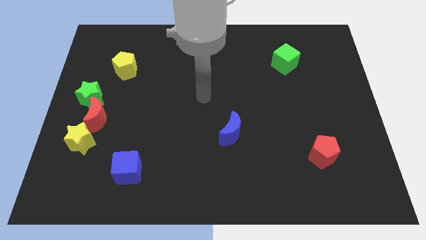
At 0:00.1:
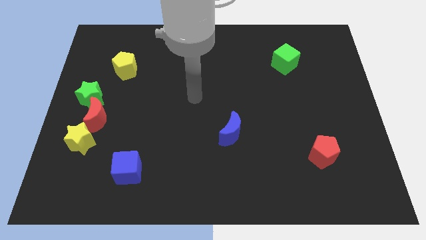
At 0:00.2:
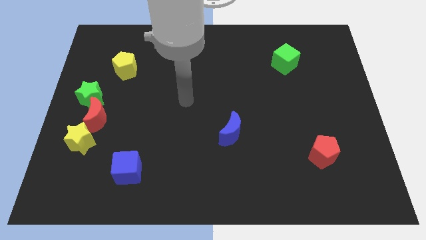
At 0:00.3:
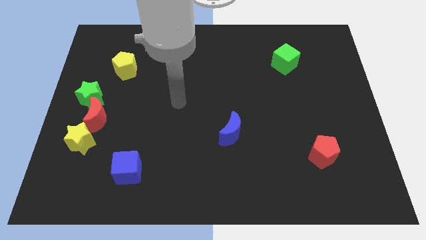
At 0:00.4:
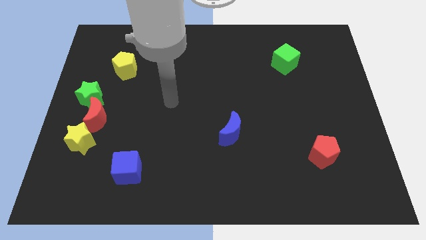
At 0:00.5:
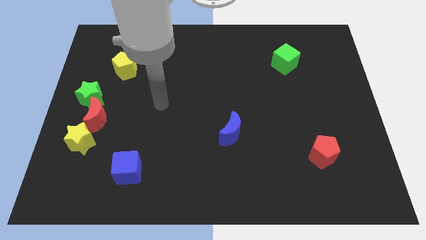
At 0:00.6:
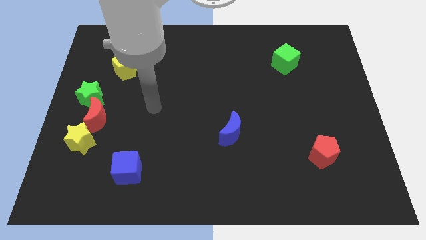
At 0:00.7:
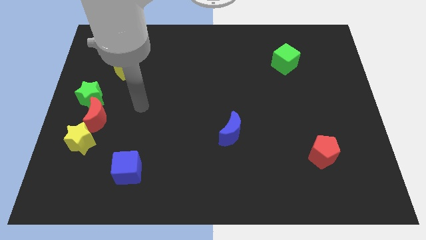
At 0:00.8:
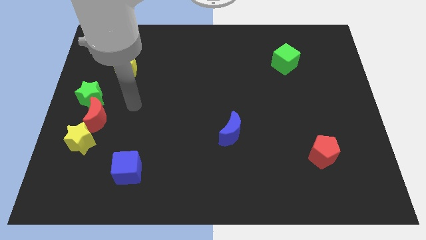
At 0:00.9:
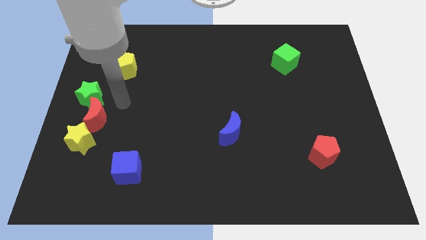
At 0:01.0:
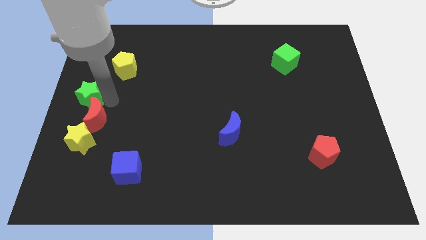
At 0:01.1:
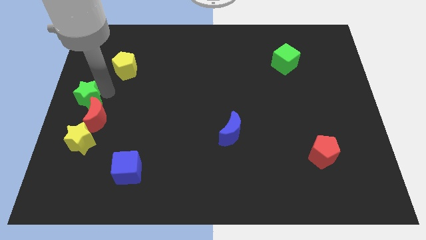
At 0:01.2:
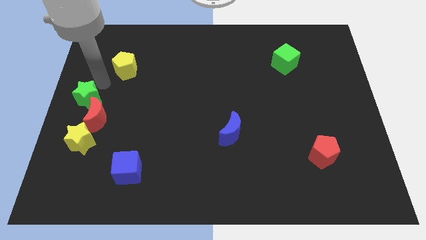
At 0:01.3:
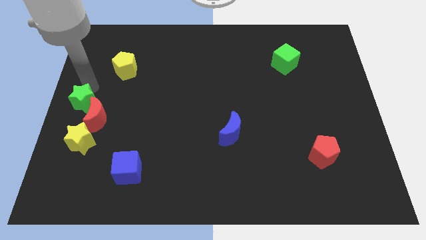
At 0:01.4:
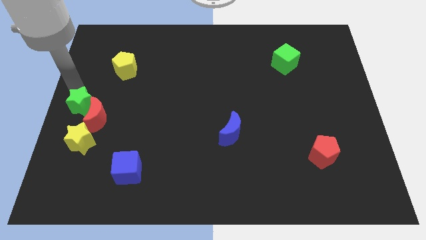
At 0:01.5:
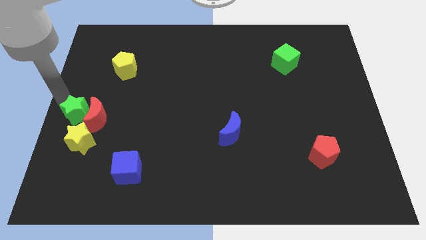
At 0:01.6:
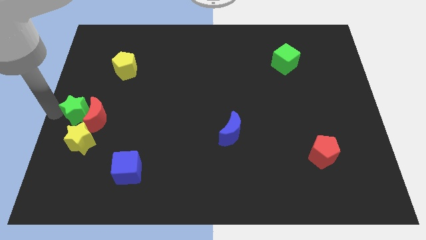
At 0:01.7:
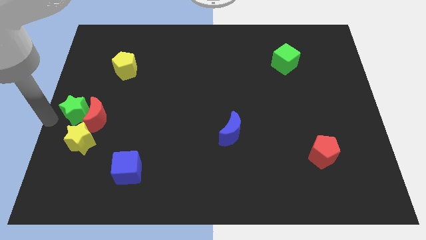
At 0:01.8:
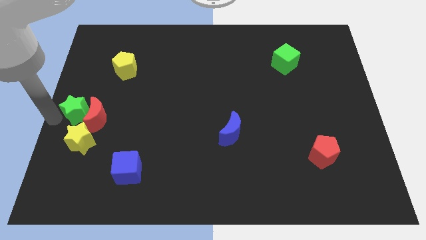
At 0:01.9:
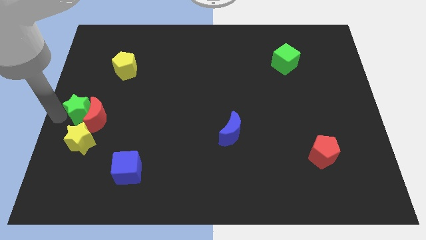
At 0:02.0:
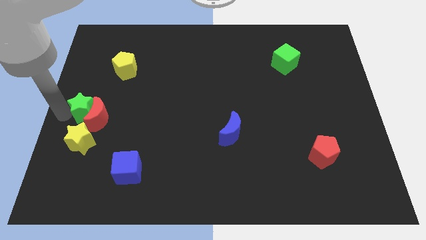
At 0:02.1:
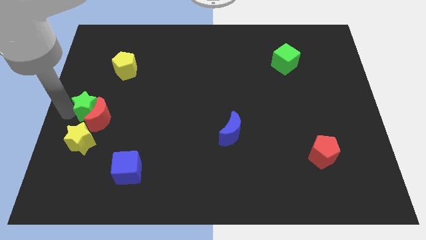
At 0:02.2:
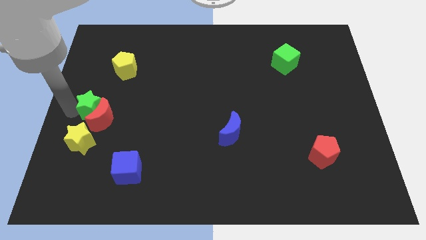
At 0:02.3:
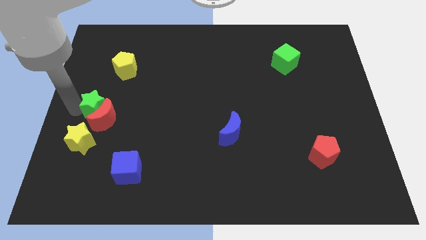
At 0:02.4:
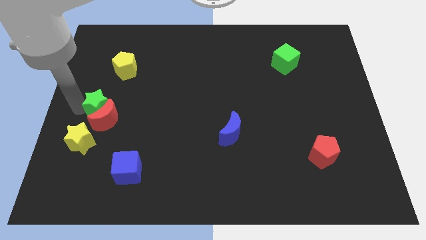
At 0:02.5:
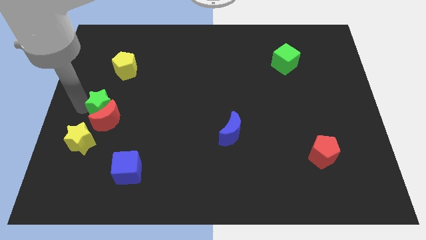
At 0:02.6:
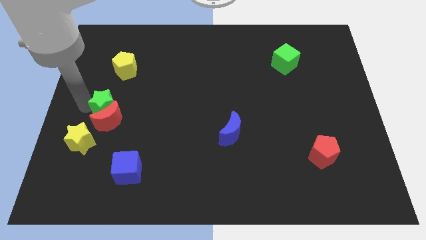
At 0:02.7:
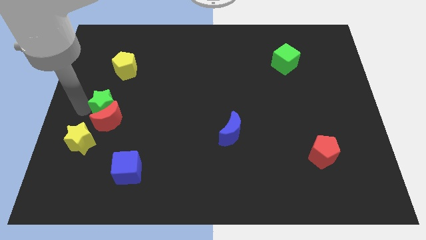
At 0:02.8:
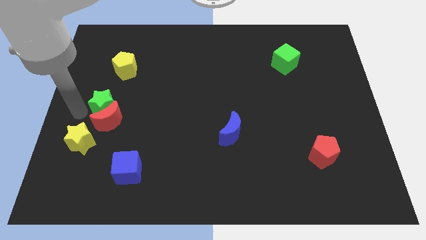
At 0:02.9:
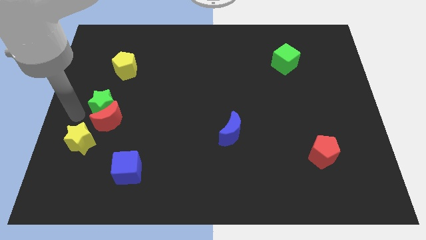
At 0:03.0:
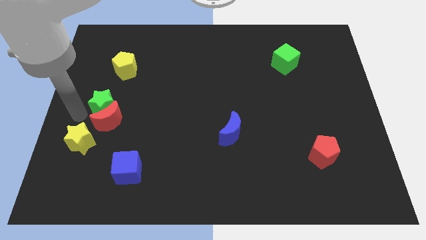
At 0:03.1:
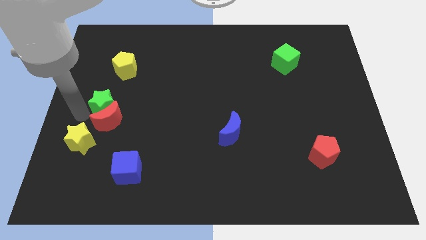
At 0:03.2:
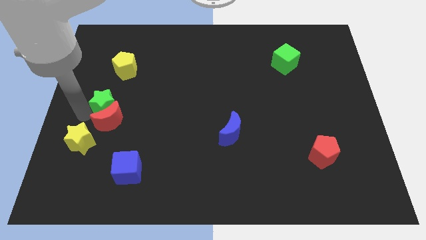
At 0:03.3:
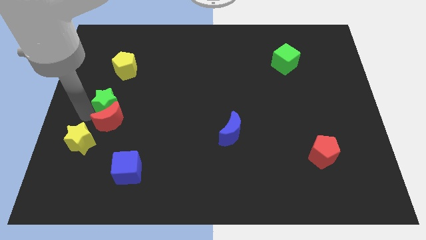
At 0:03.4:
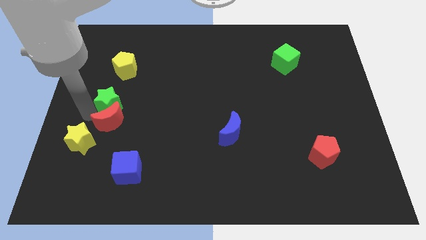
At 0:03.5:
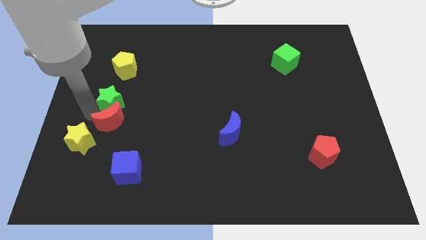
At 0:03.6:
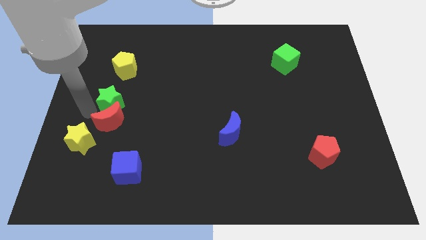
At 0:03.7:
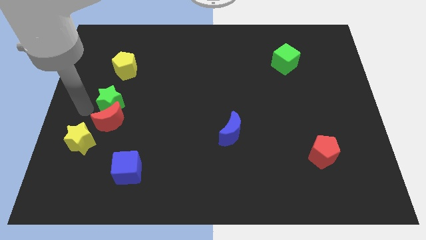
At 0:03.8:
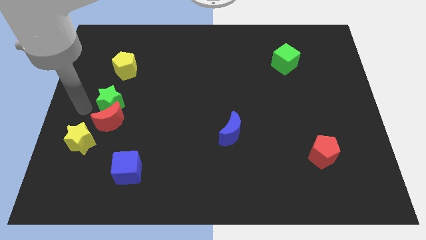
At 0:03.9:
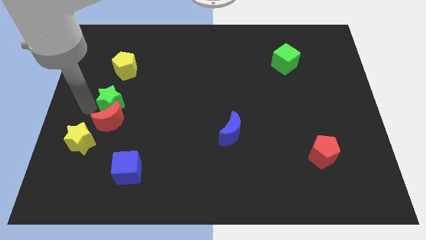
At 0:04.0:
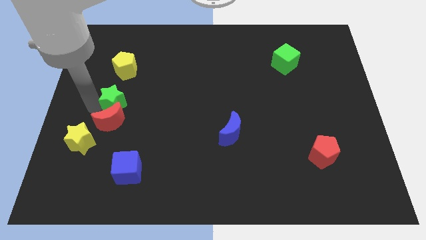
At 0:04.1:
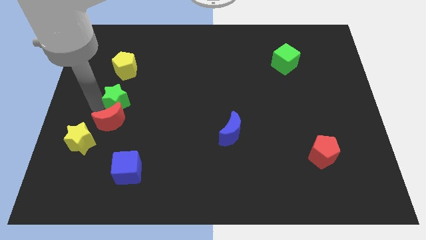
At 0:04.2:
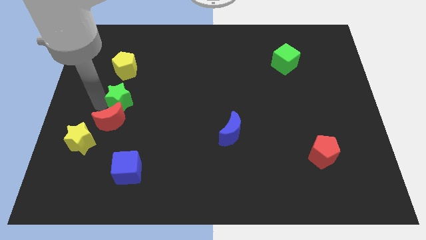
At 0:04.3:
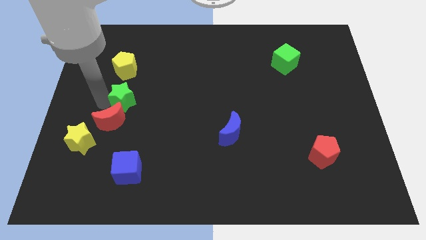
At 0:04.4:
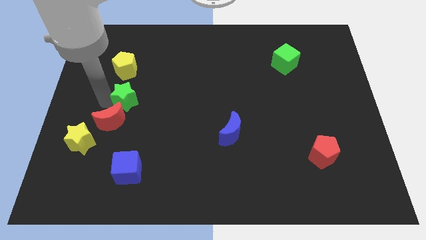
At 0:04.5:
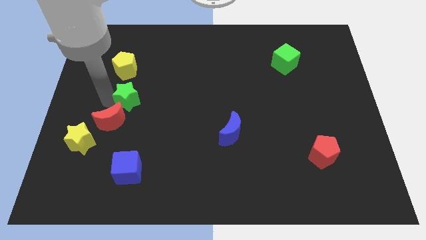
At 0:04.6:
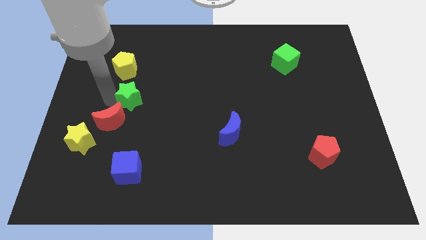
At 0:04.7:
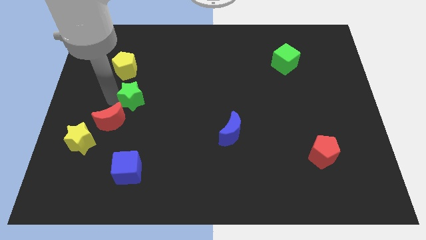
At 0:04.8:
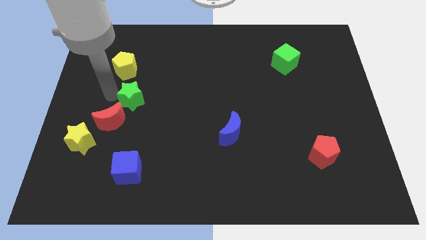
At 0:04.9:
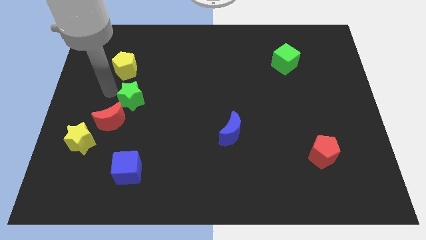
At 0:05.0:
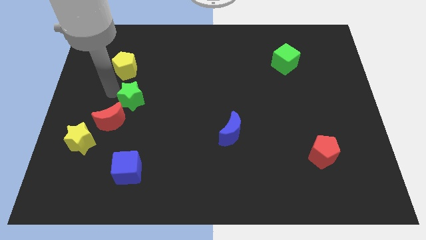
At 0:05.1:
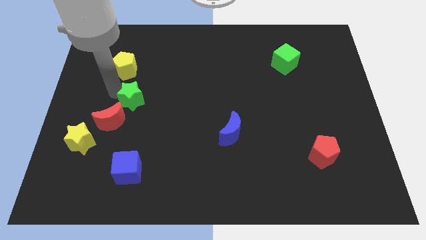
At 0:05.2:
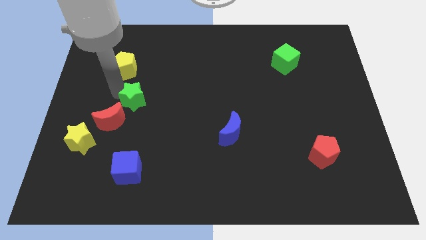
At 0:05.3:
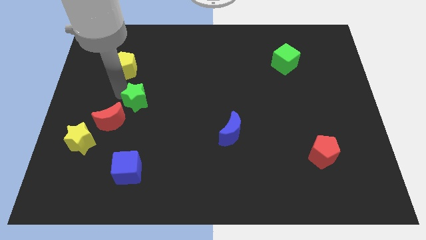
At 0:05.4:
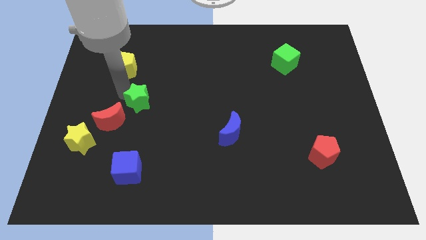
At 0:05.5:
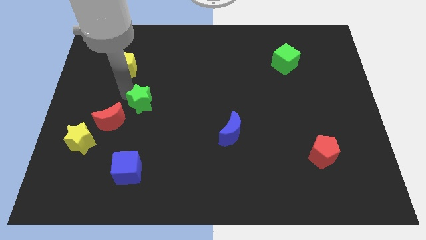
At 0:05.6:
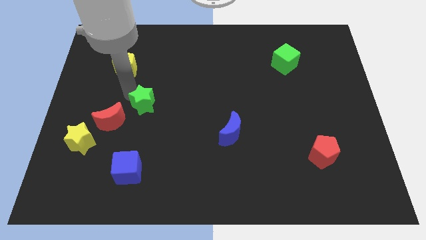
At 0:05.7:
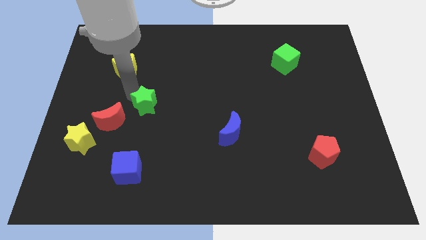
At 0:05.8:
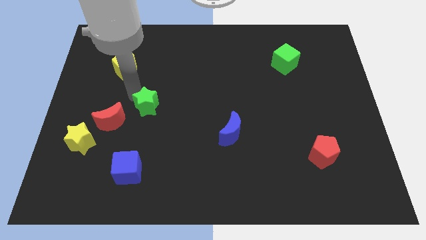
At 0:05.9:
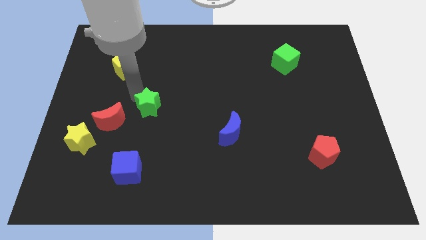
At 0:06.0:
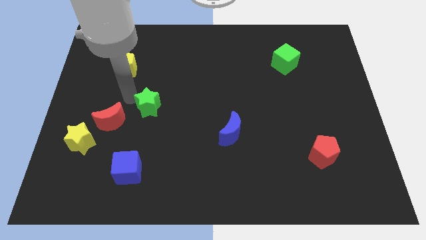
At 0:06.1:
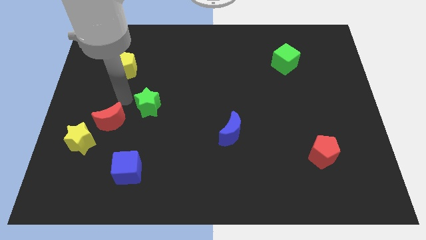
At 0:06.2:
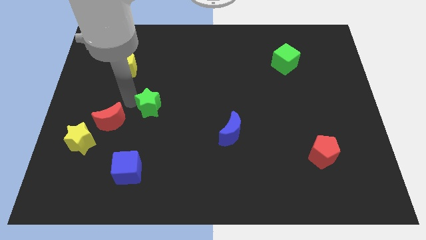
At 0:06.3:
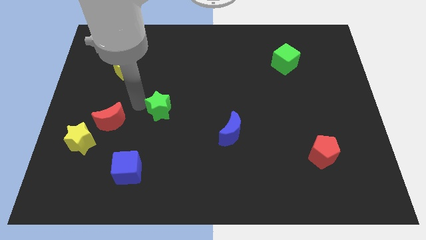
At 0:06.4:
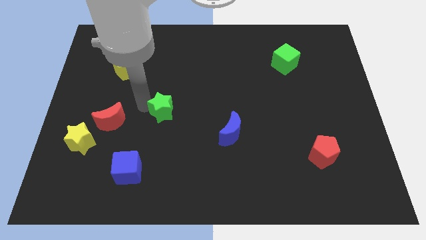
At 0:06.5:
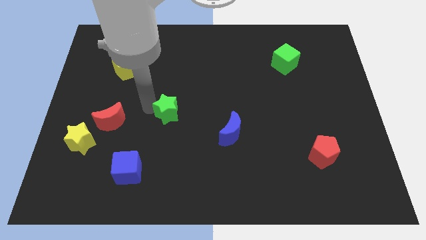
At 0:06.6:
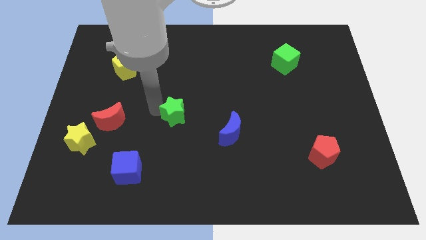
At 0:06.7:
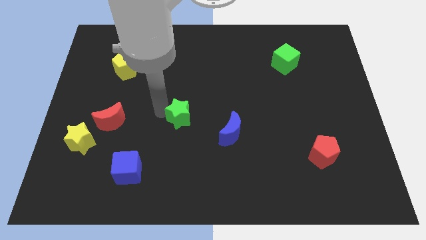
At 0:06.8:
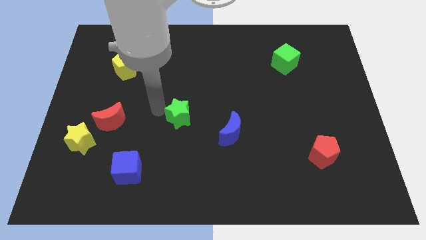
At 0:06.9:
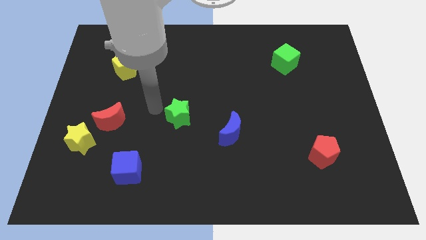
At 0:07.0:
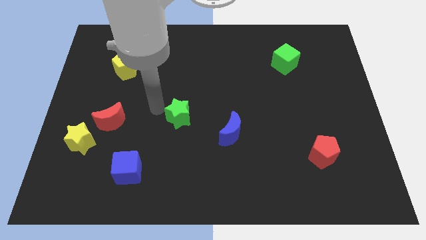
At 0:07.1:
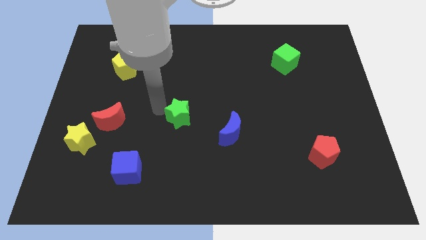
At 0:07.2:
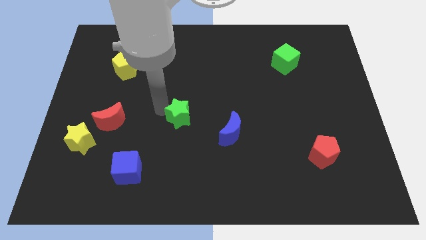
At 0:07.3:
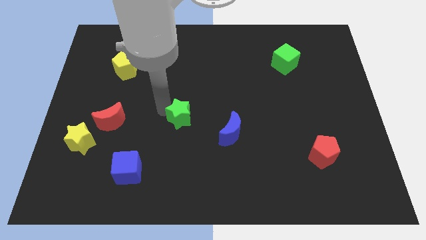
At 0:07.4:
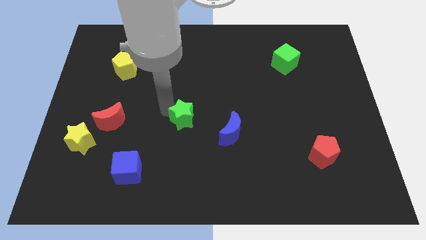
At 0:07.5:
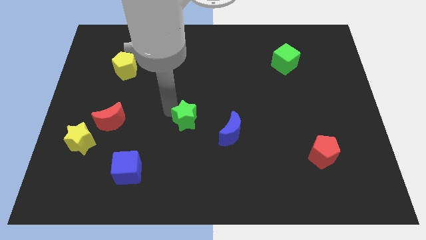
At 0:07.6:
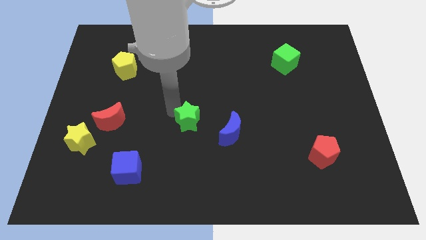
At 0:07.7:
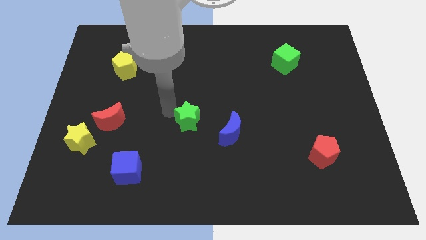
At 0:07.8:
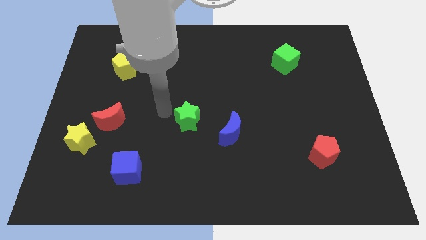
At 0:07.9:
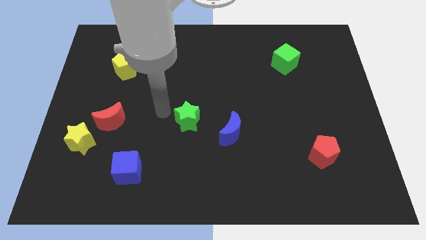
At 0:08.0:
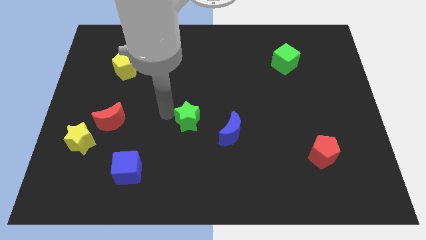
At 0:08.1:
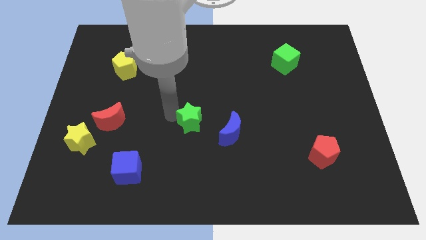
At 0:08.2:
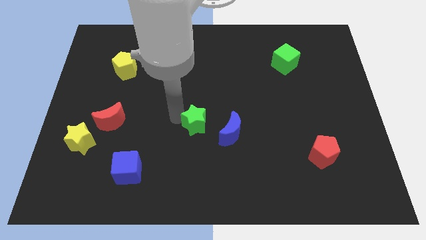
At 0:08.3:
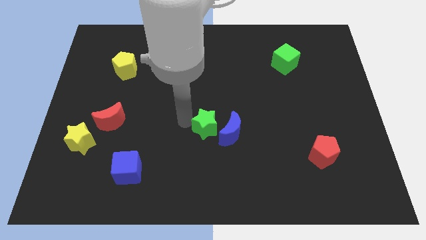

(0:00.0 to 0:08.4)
move the green star to the blue moon
